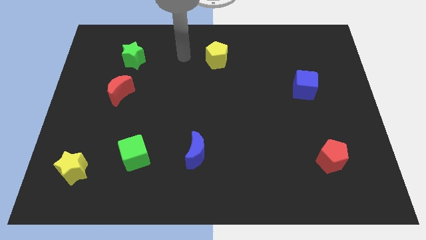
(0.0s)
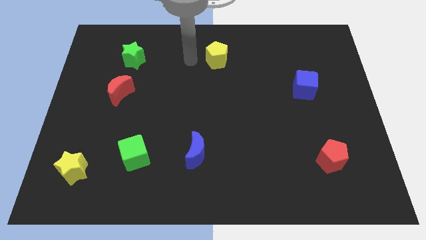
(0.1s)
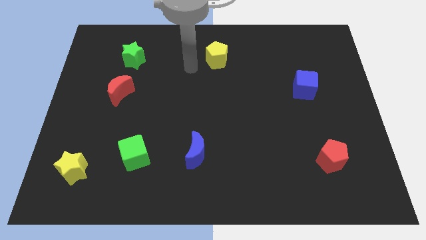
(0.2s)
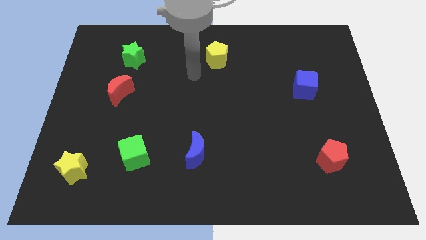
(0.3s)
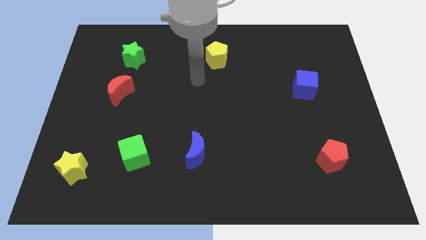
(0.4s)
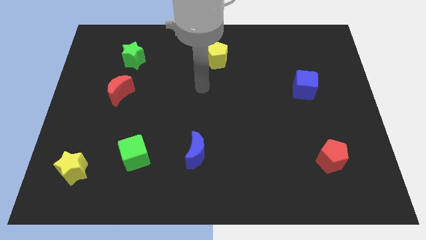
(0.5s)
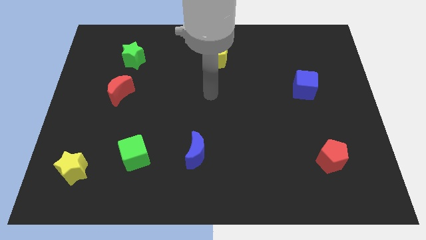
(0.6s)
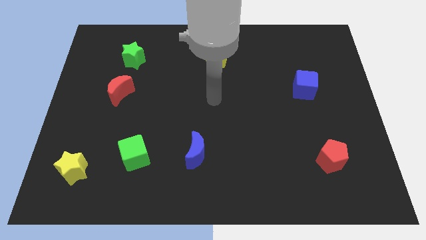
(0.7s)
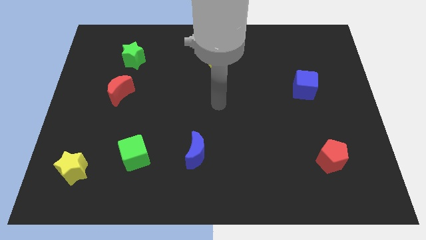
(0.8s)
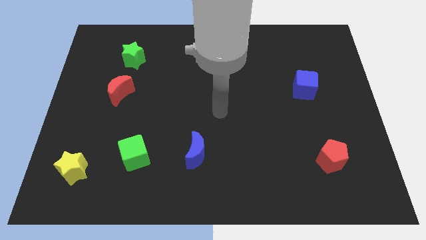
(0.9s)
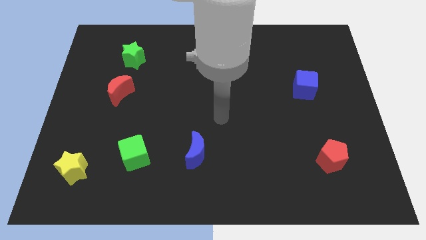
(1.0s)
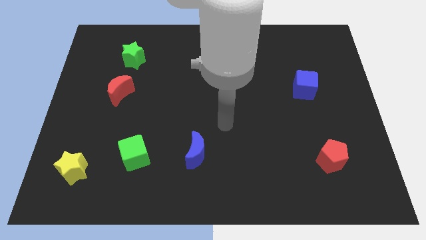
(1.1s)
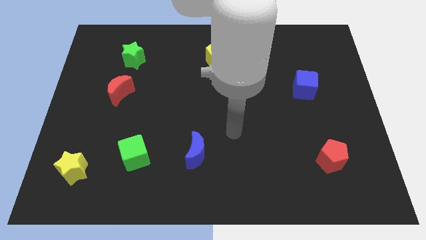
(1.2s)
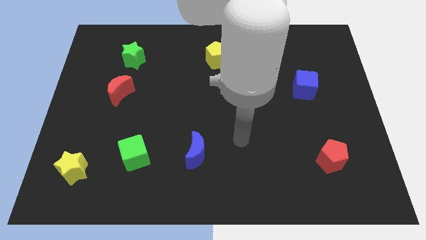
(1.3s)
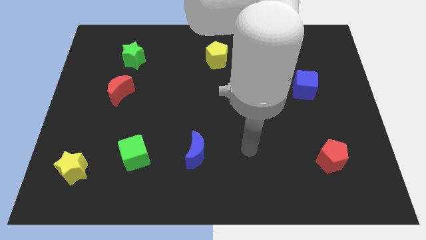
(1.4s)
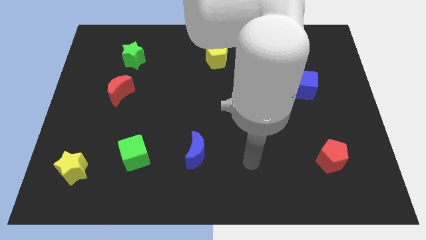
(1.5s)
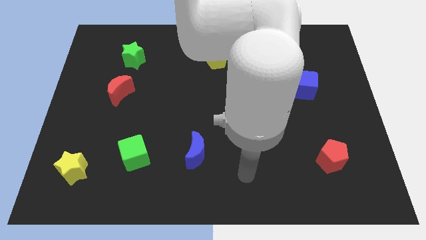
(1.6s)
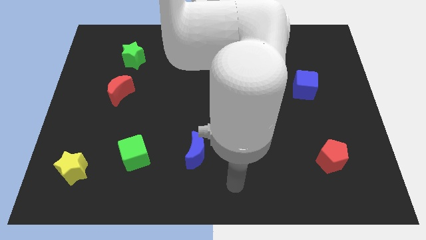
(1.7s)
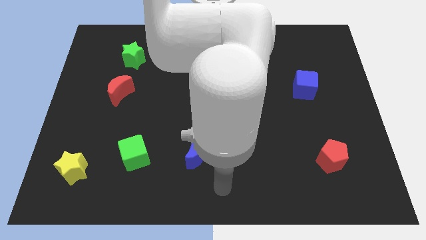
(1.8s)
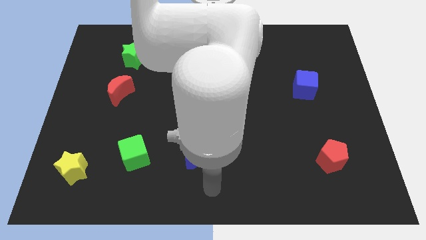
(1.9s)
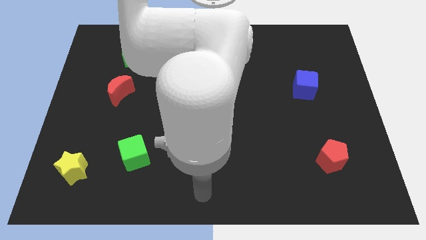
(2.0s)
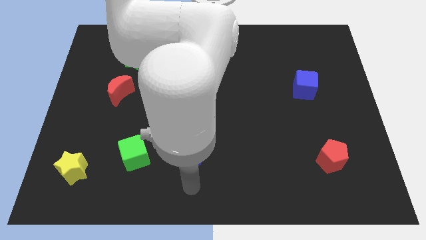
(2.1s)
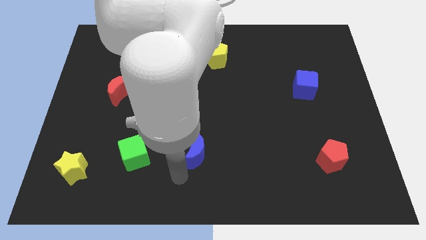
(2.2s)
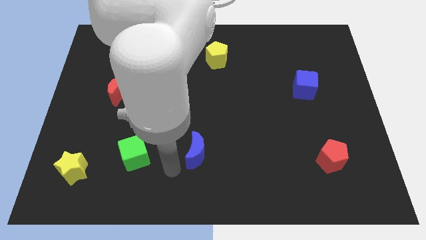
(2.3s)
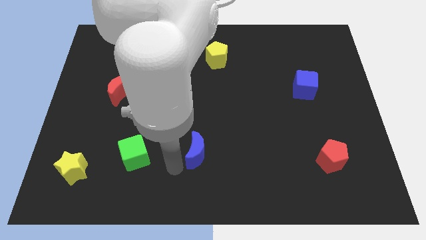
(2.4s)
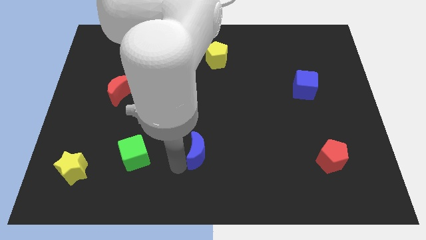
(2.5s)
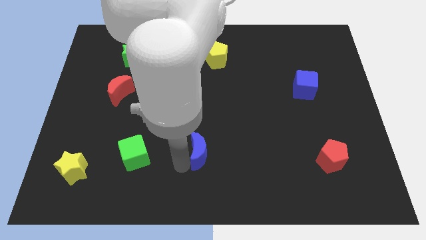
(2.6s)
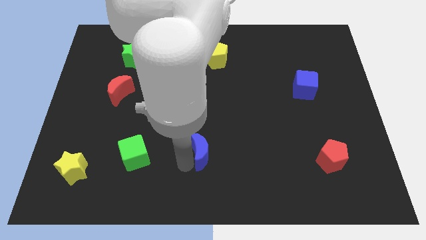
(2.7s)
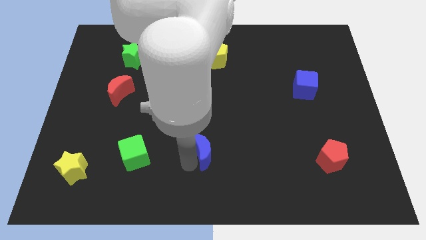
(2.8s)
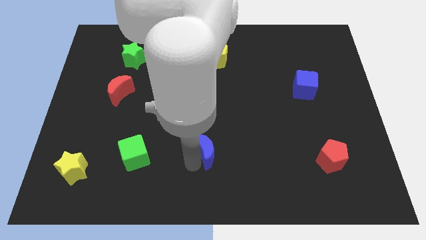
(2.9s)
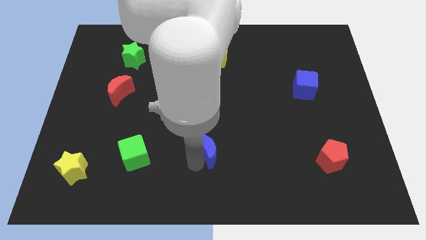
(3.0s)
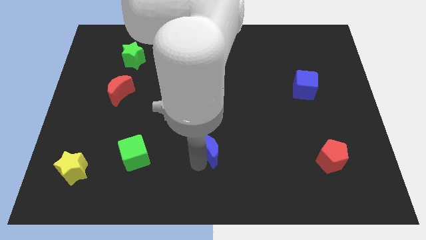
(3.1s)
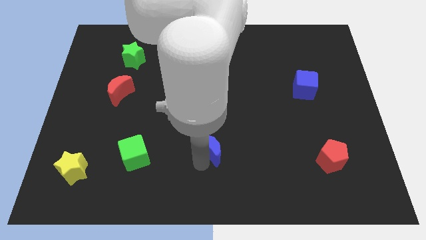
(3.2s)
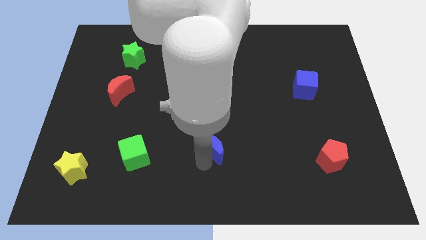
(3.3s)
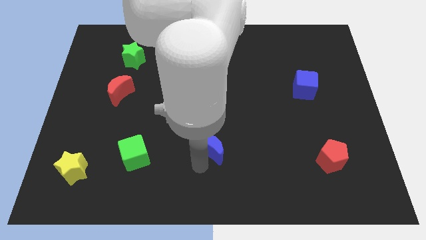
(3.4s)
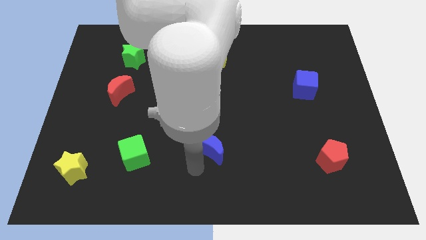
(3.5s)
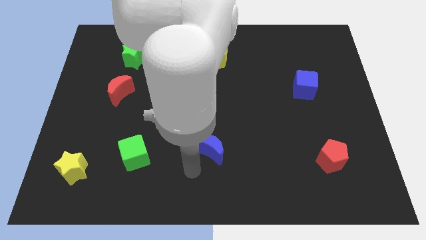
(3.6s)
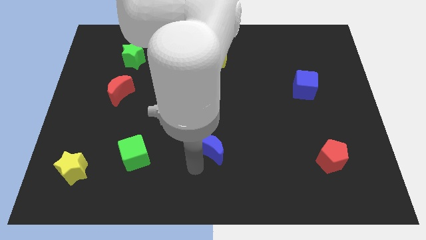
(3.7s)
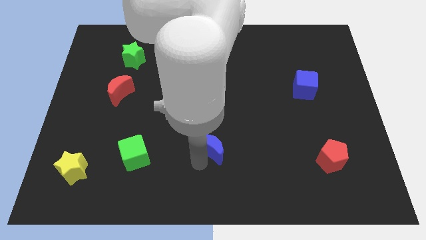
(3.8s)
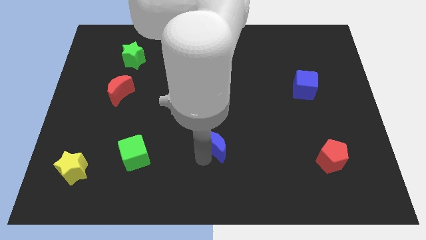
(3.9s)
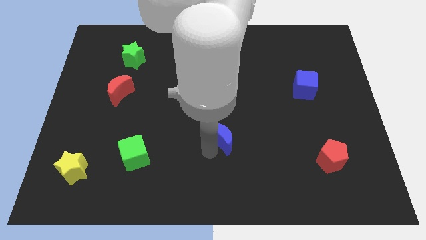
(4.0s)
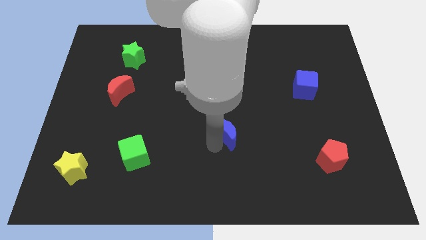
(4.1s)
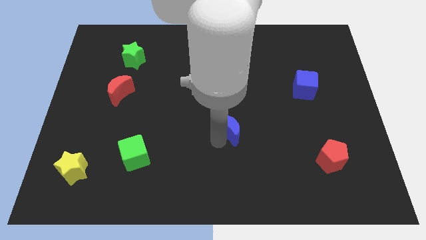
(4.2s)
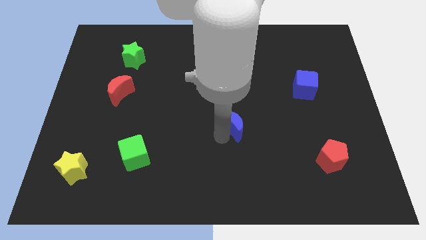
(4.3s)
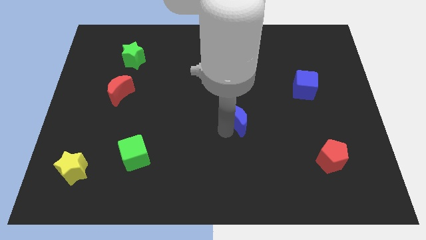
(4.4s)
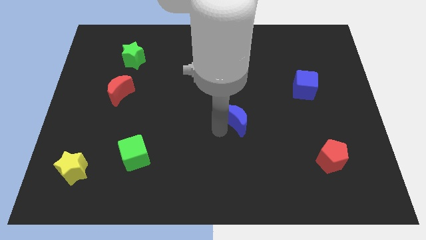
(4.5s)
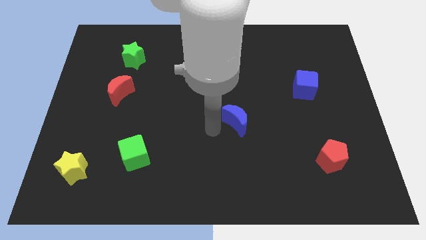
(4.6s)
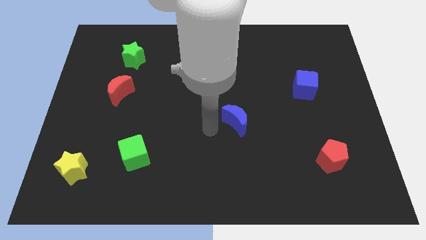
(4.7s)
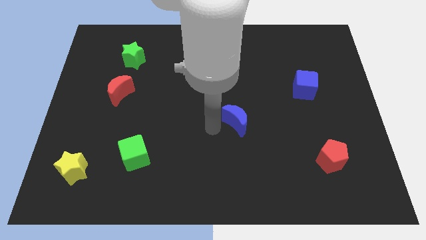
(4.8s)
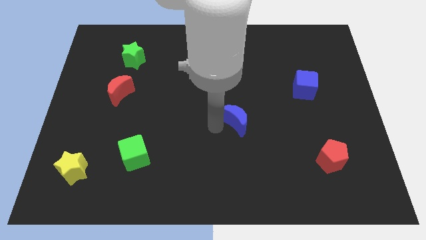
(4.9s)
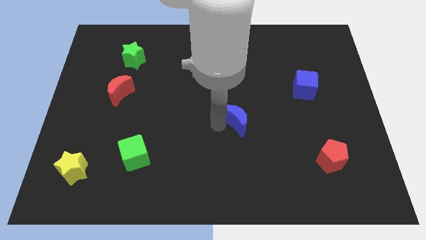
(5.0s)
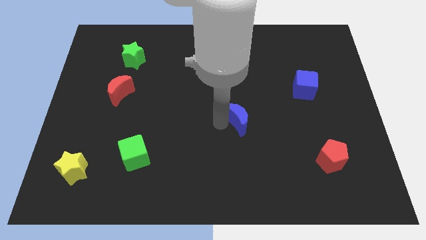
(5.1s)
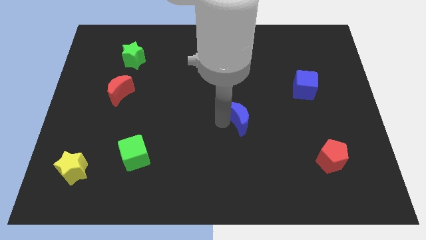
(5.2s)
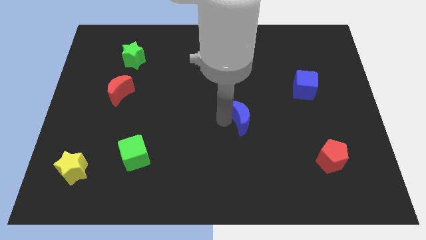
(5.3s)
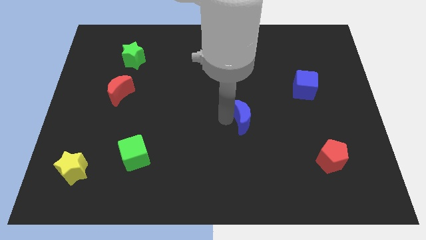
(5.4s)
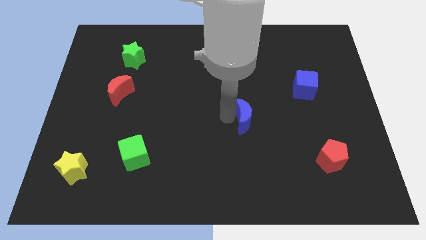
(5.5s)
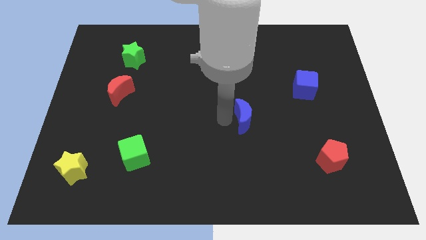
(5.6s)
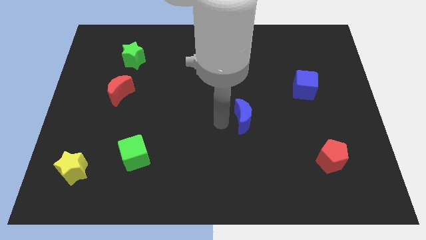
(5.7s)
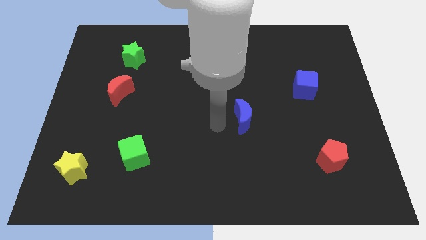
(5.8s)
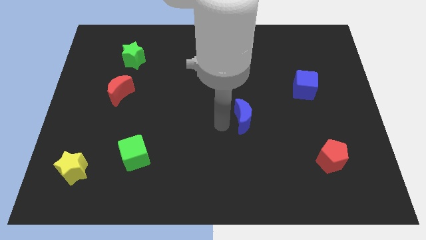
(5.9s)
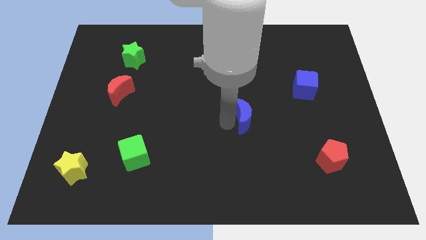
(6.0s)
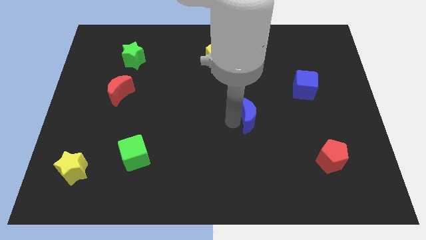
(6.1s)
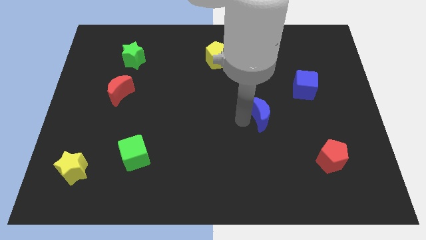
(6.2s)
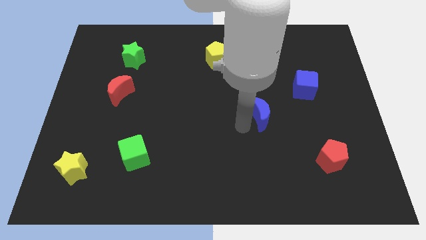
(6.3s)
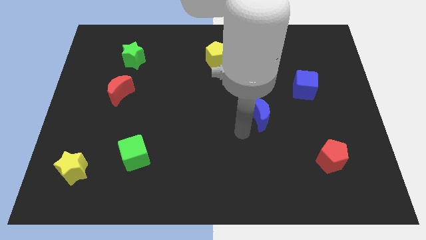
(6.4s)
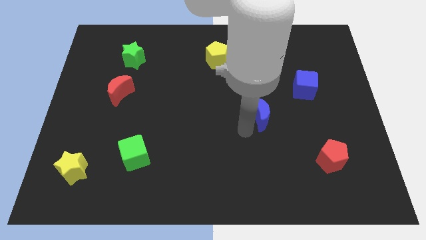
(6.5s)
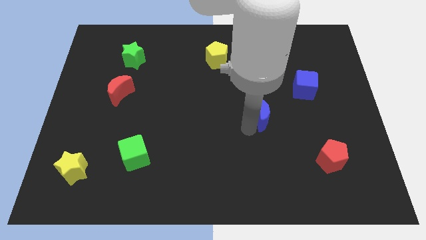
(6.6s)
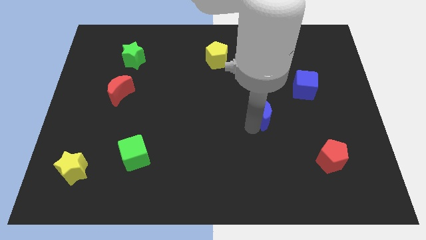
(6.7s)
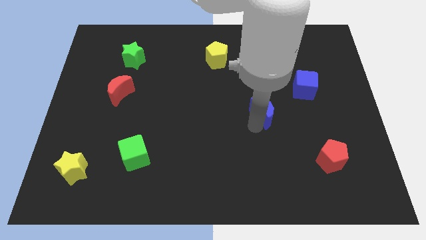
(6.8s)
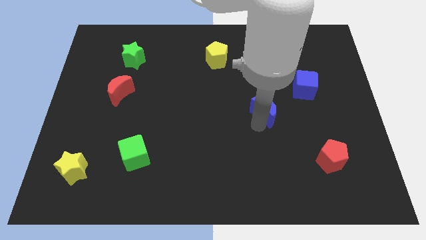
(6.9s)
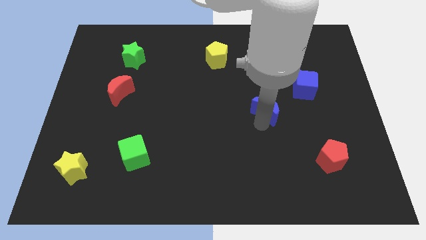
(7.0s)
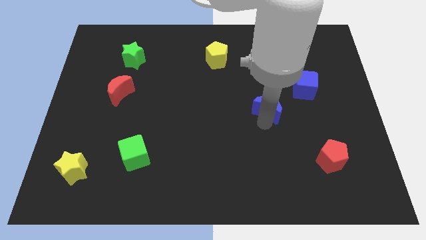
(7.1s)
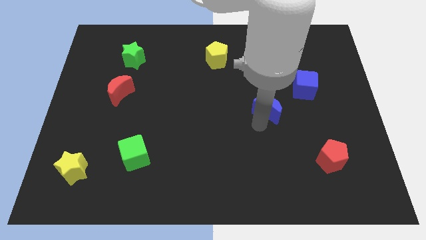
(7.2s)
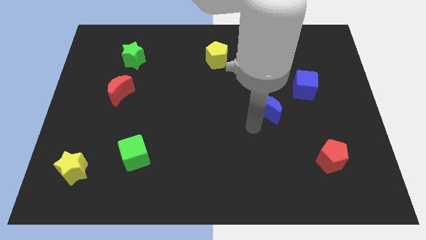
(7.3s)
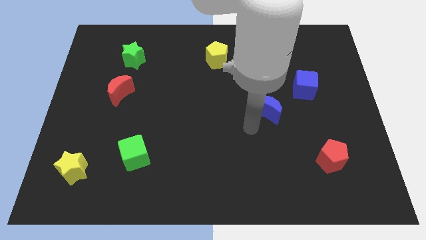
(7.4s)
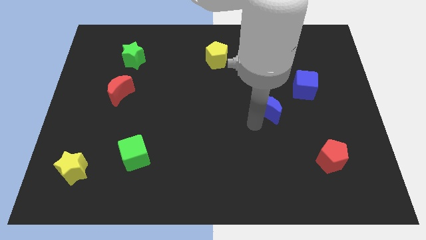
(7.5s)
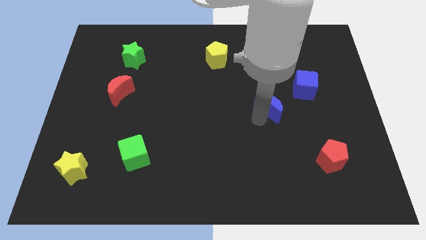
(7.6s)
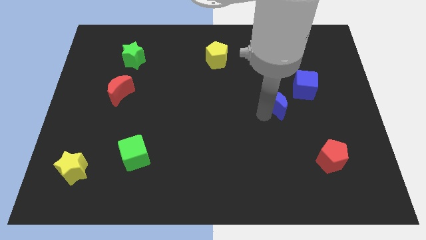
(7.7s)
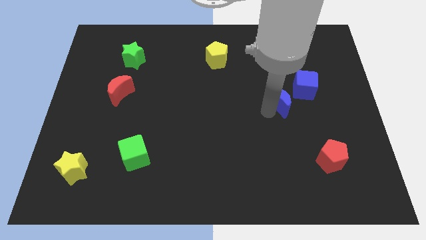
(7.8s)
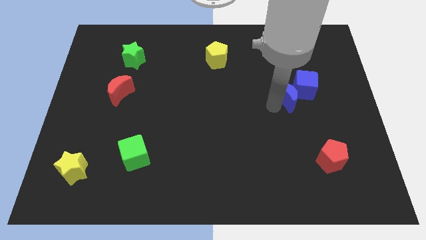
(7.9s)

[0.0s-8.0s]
move the blue moon close to the blue cube
